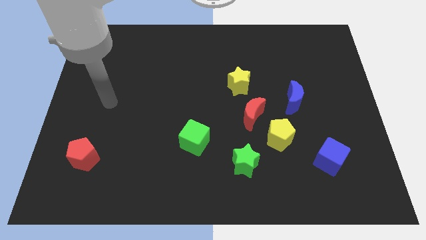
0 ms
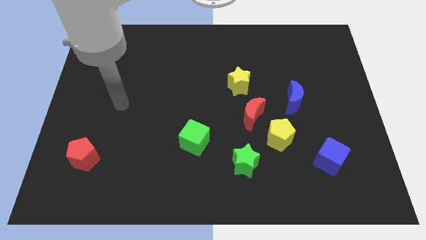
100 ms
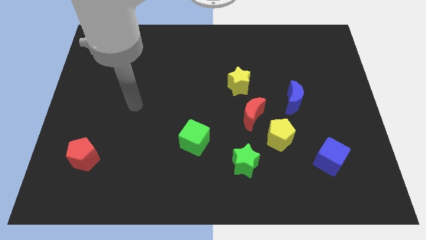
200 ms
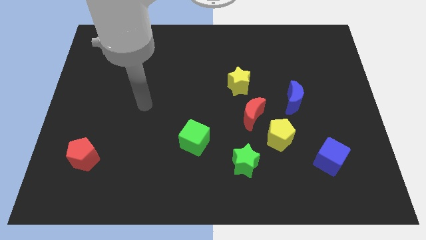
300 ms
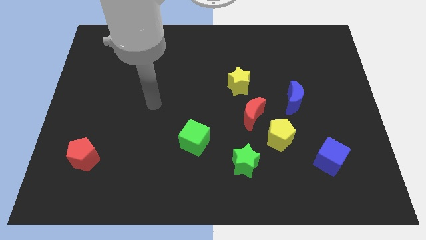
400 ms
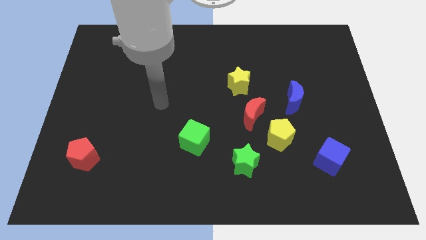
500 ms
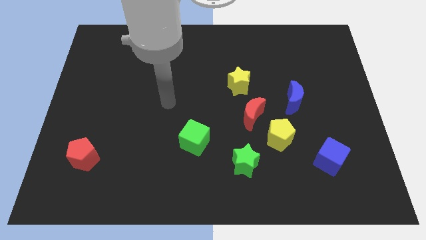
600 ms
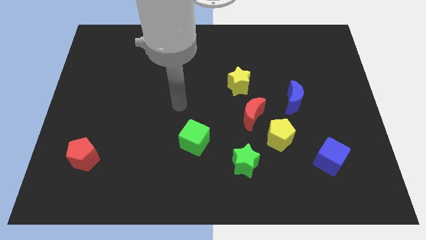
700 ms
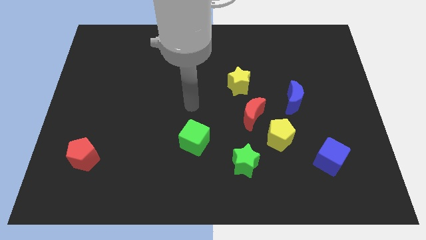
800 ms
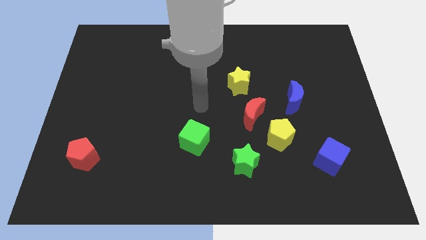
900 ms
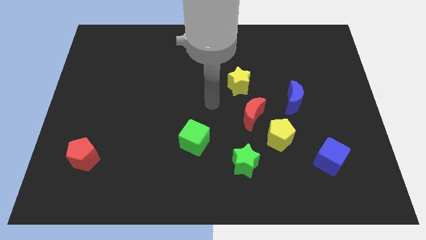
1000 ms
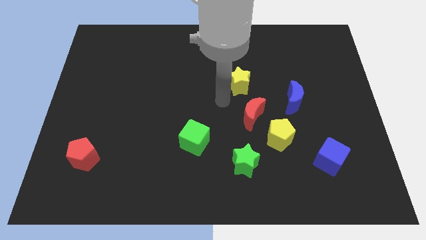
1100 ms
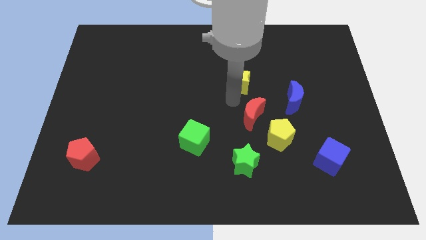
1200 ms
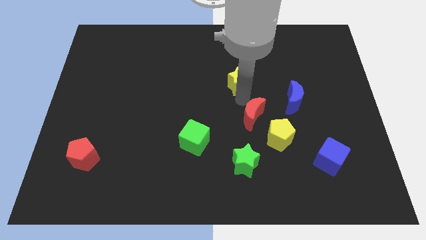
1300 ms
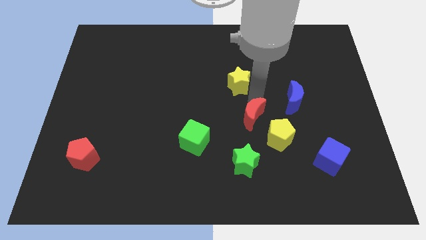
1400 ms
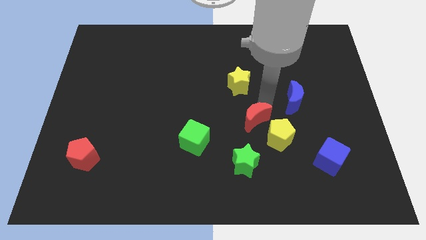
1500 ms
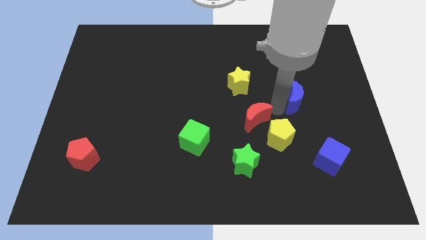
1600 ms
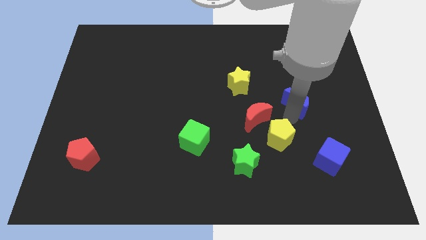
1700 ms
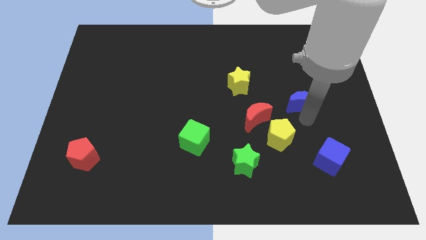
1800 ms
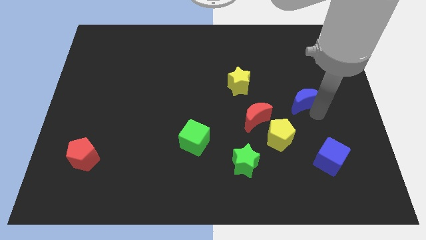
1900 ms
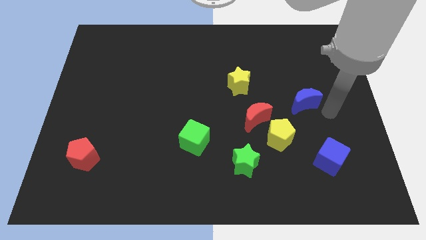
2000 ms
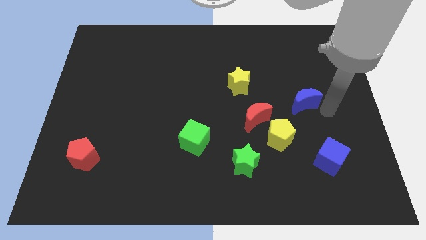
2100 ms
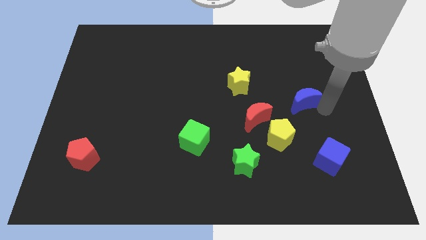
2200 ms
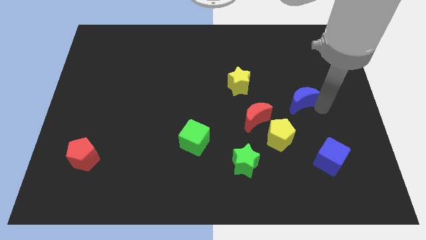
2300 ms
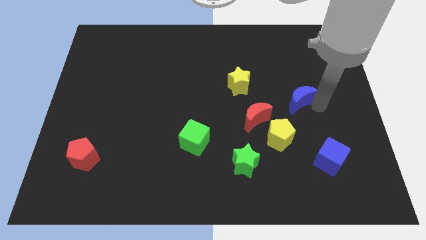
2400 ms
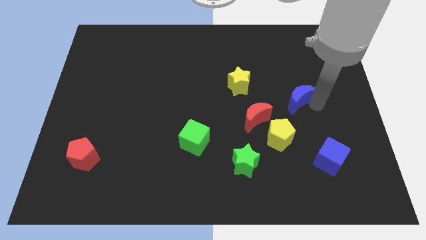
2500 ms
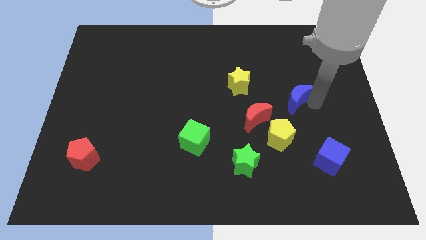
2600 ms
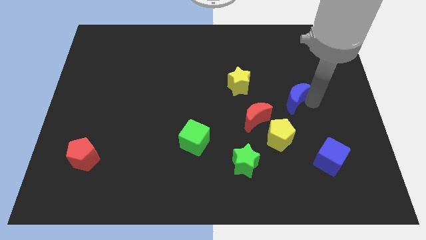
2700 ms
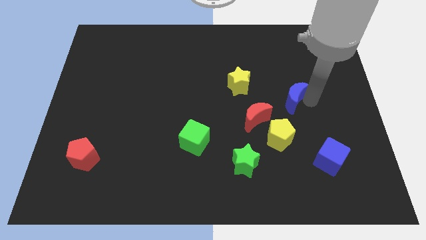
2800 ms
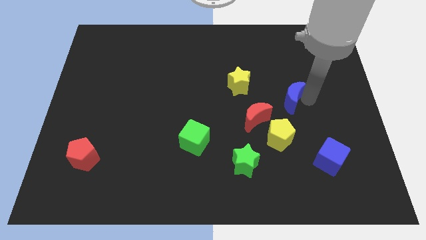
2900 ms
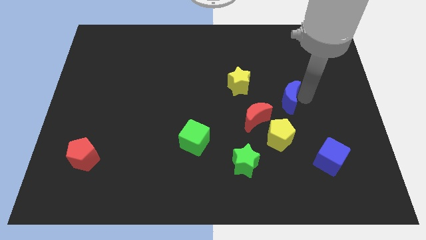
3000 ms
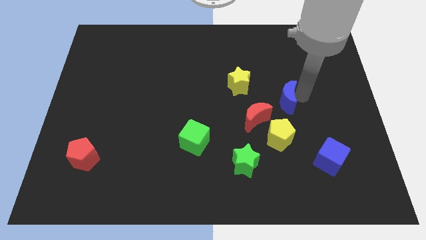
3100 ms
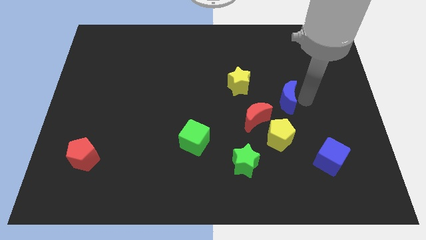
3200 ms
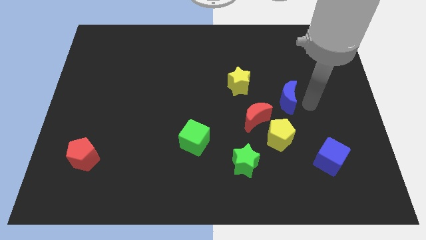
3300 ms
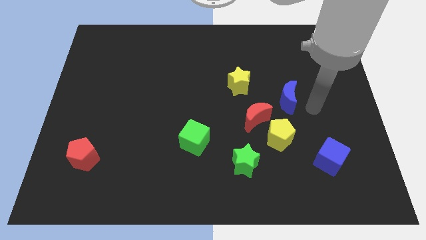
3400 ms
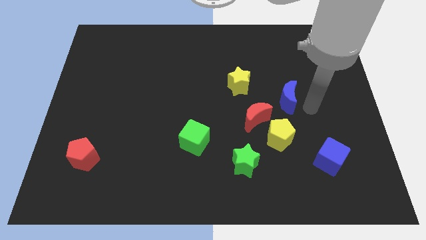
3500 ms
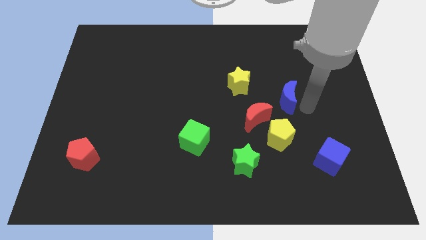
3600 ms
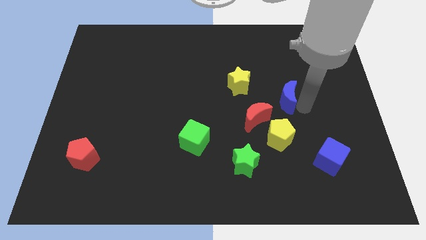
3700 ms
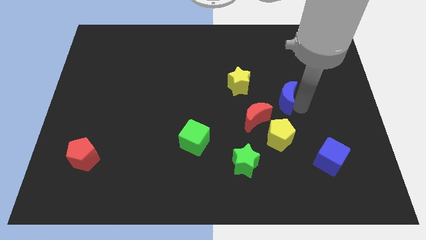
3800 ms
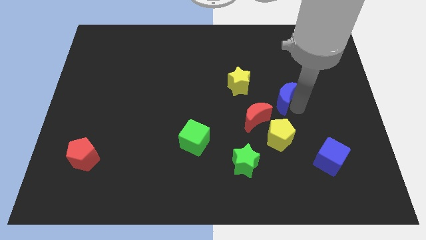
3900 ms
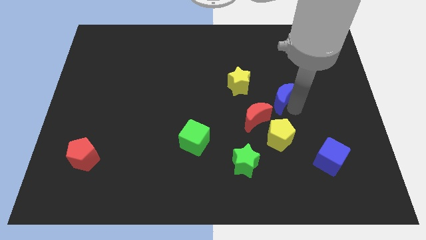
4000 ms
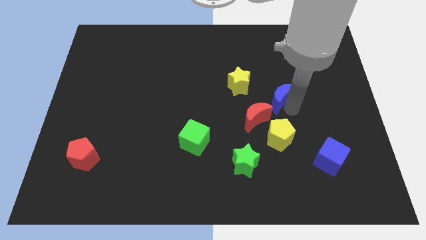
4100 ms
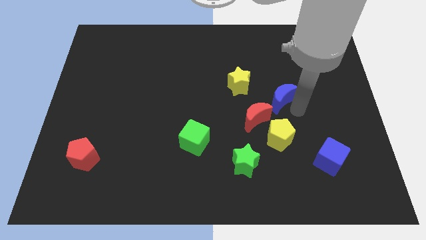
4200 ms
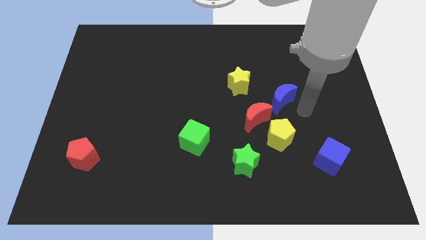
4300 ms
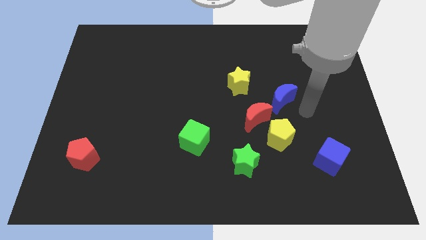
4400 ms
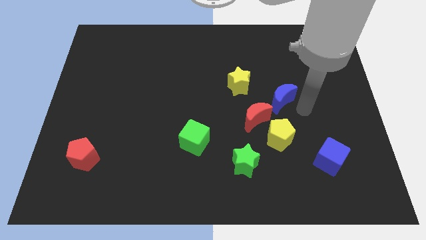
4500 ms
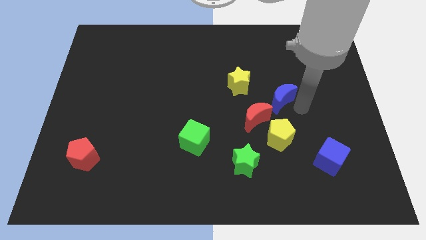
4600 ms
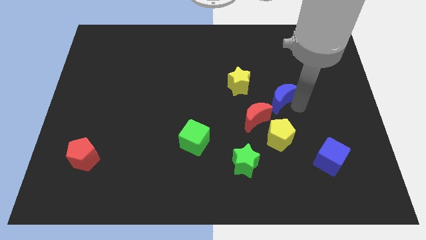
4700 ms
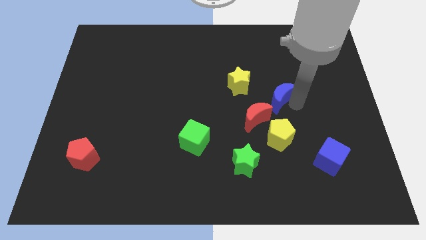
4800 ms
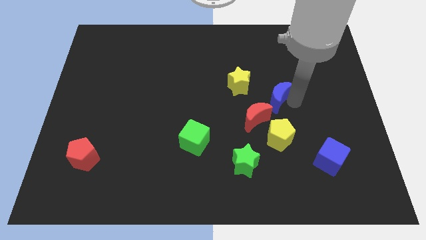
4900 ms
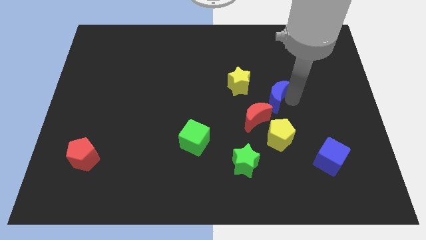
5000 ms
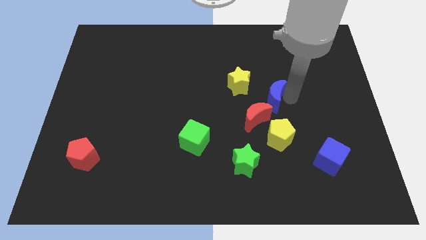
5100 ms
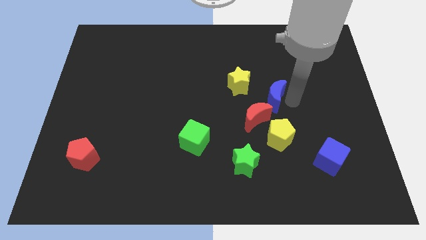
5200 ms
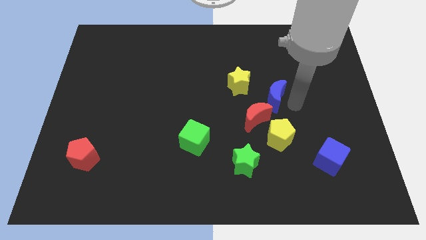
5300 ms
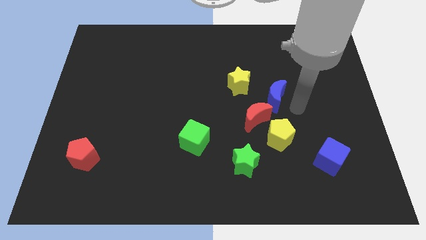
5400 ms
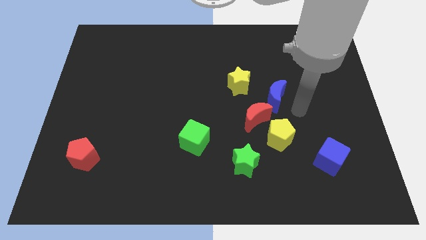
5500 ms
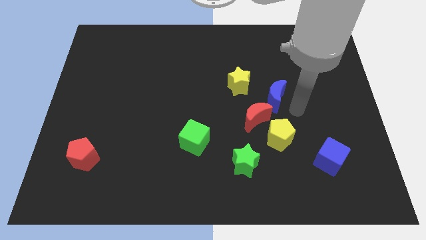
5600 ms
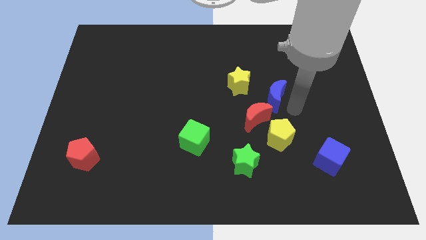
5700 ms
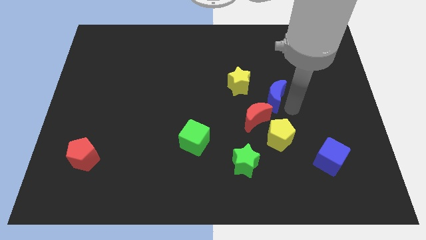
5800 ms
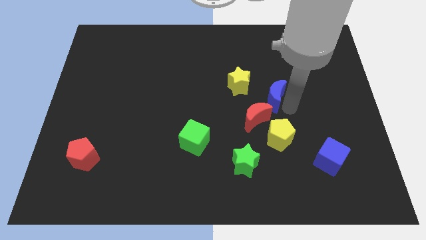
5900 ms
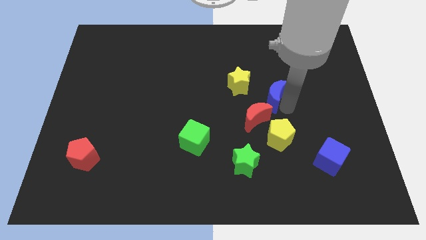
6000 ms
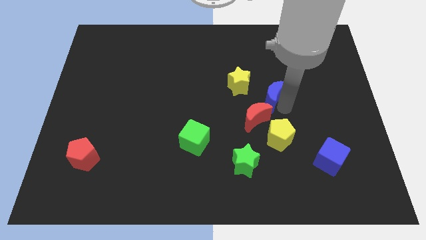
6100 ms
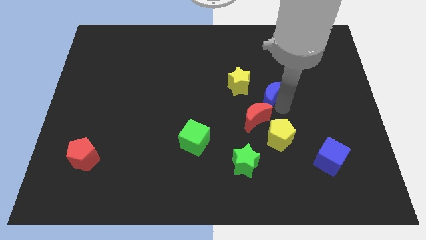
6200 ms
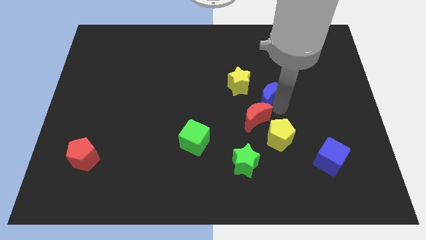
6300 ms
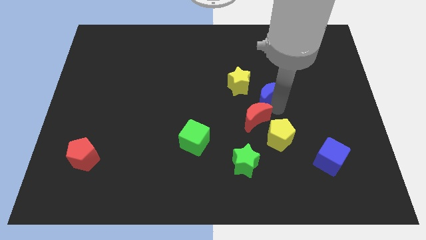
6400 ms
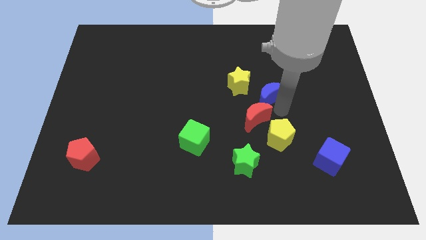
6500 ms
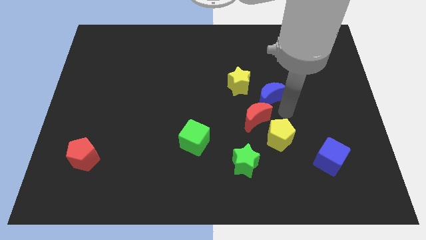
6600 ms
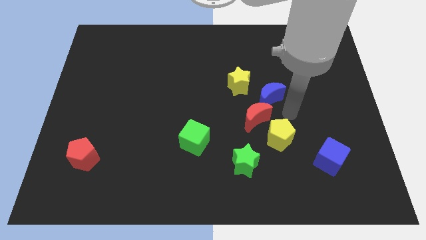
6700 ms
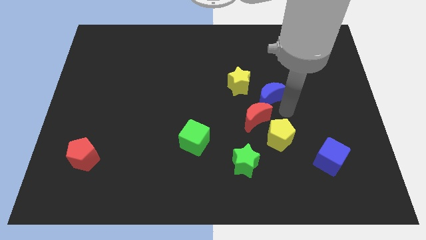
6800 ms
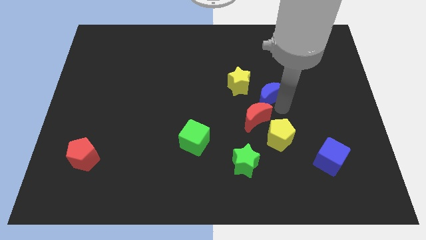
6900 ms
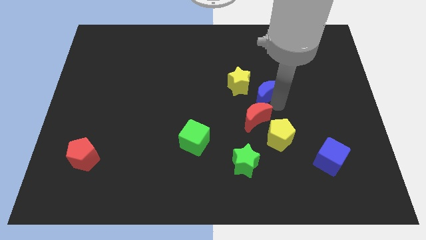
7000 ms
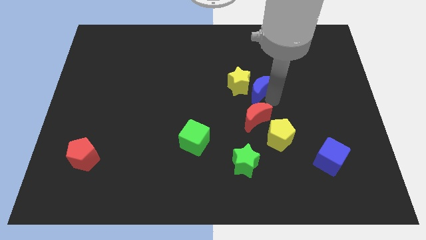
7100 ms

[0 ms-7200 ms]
put the blue moon next to the yellow star

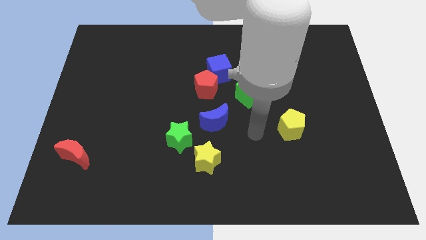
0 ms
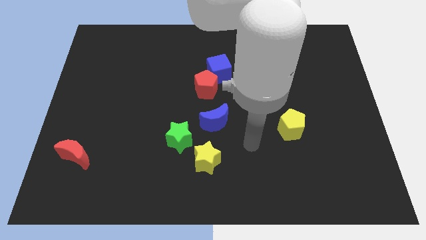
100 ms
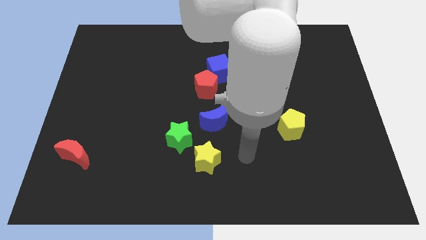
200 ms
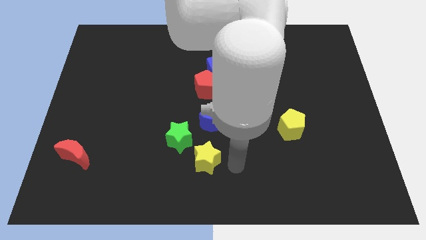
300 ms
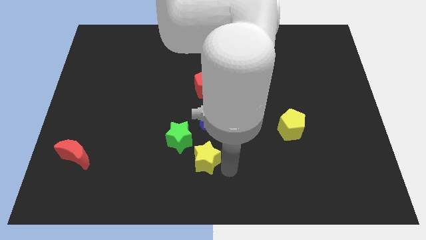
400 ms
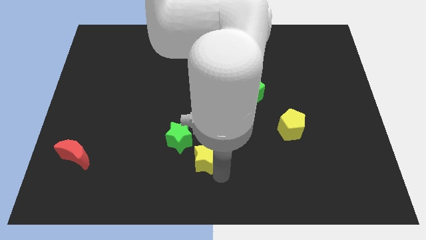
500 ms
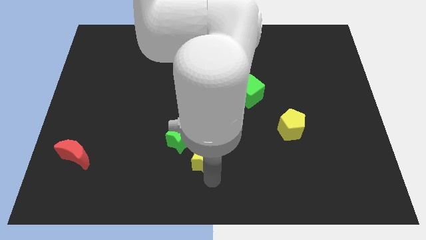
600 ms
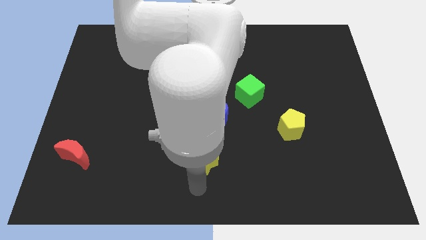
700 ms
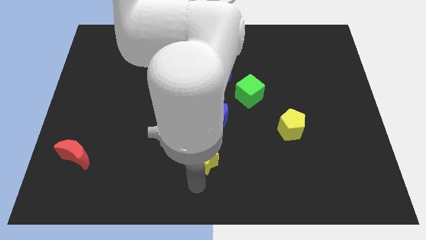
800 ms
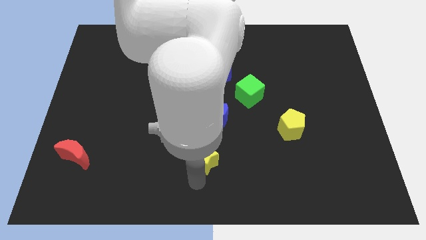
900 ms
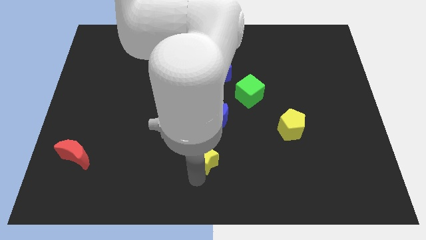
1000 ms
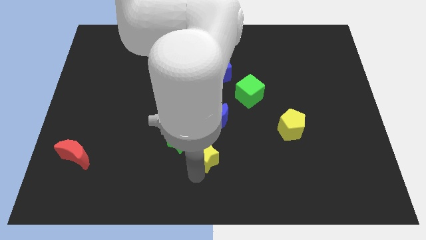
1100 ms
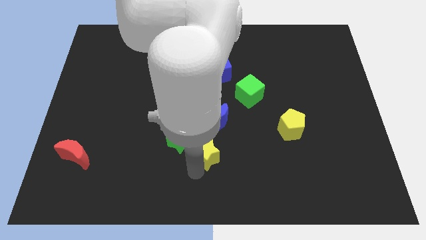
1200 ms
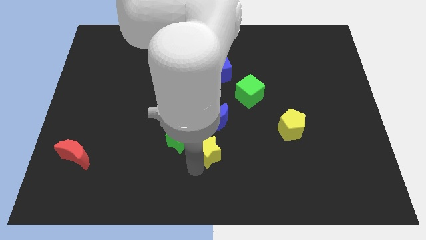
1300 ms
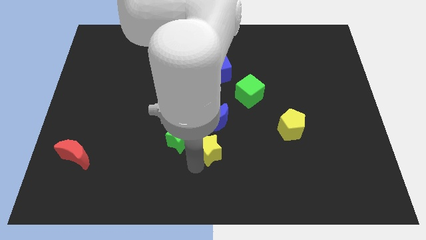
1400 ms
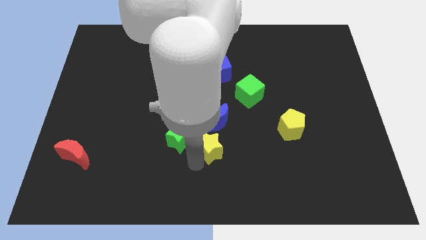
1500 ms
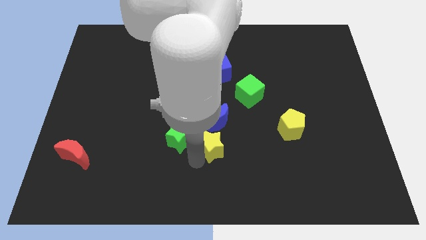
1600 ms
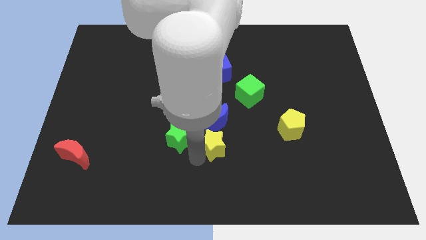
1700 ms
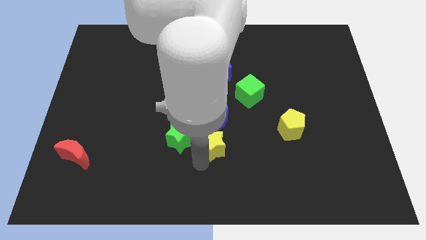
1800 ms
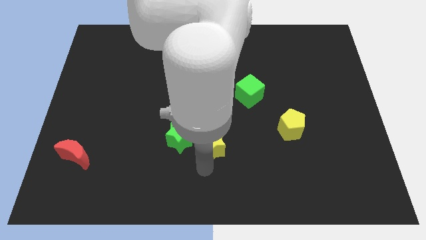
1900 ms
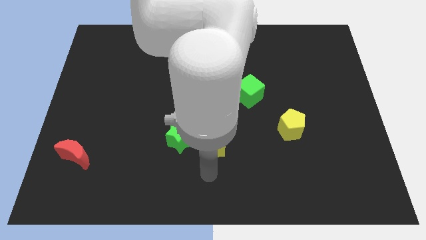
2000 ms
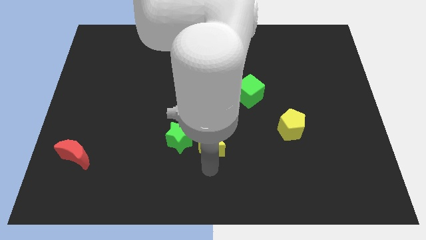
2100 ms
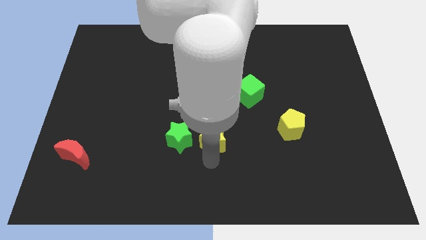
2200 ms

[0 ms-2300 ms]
put the yellow star next to the blue moon
